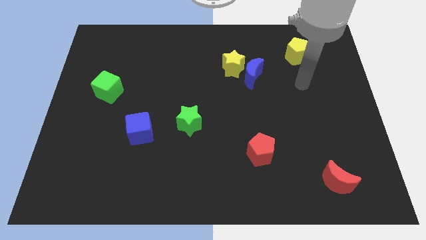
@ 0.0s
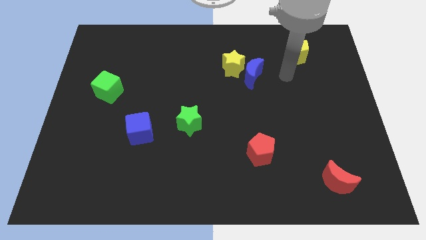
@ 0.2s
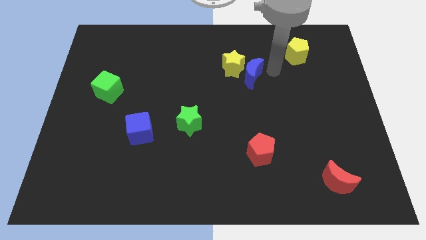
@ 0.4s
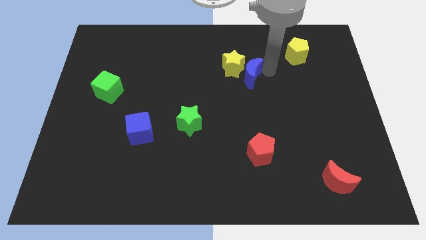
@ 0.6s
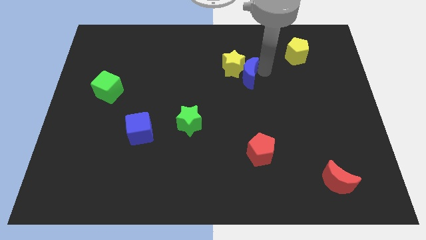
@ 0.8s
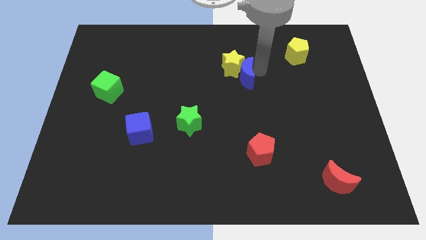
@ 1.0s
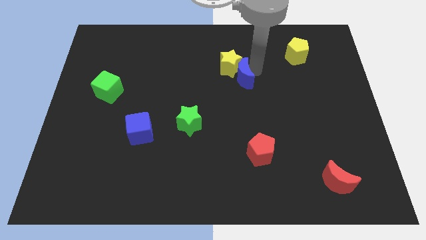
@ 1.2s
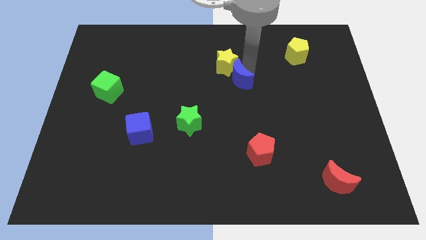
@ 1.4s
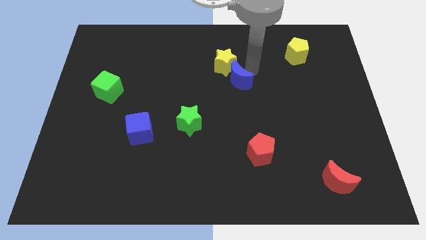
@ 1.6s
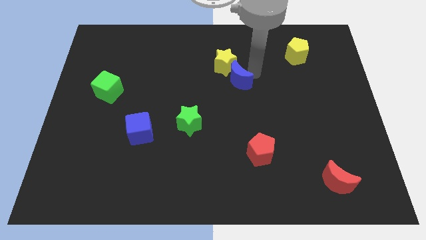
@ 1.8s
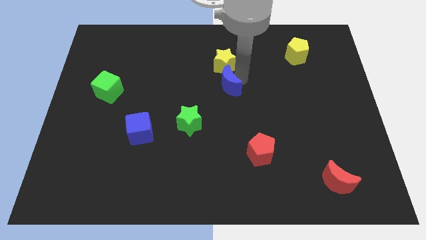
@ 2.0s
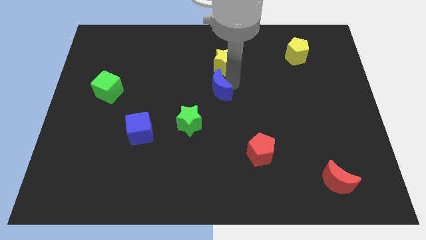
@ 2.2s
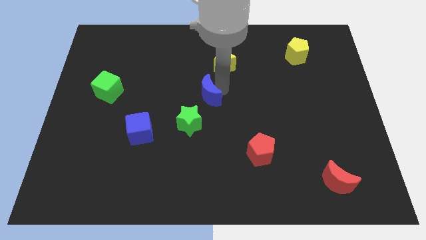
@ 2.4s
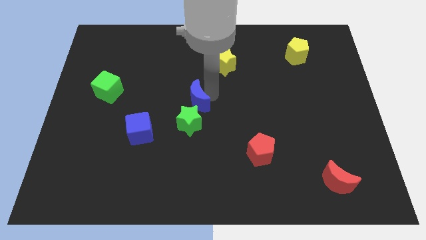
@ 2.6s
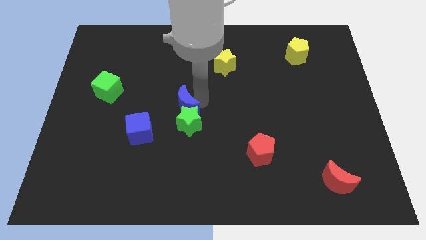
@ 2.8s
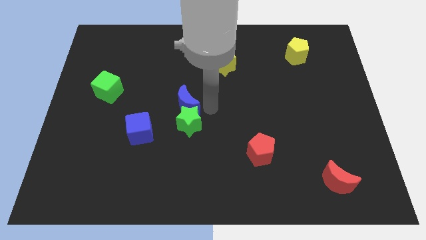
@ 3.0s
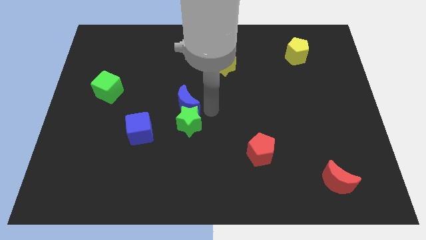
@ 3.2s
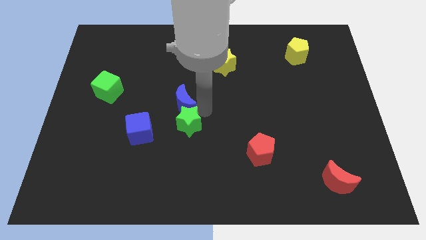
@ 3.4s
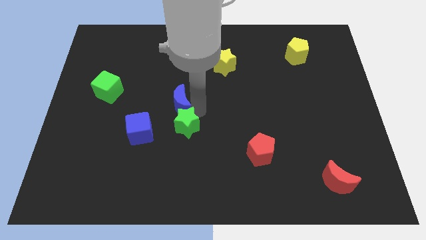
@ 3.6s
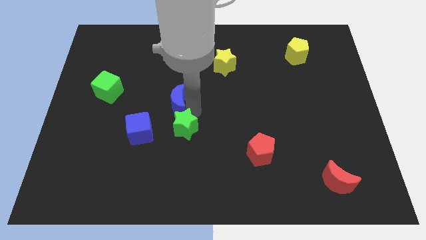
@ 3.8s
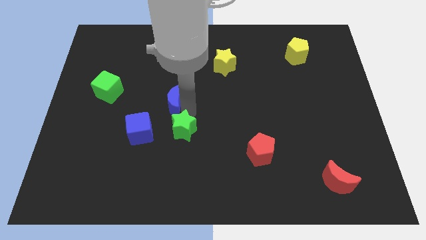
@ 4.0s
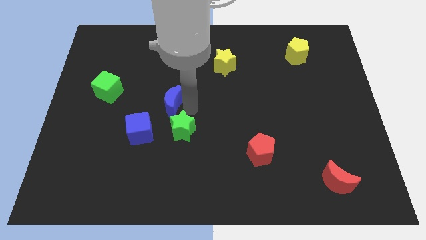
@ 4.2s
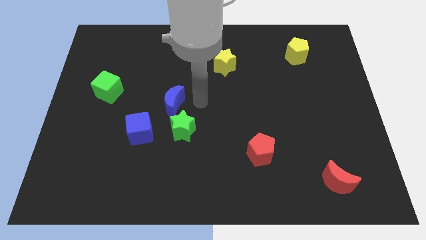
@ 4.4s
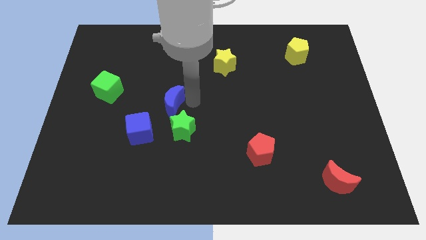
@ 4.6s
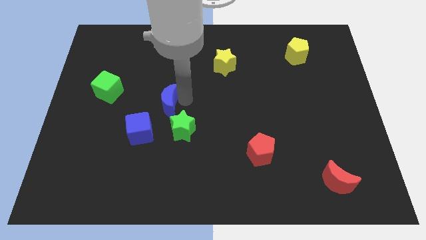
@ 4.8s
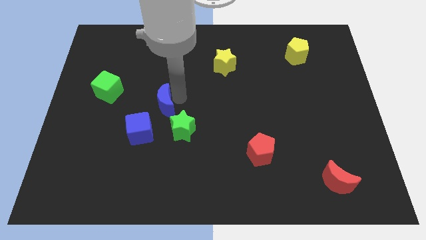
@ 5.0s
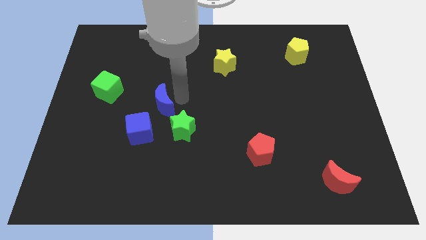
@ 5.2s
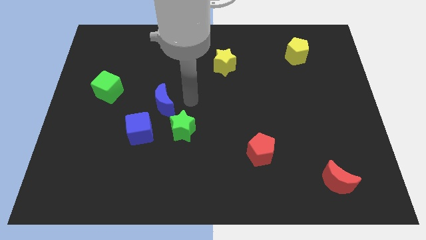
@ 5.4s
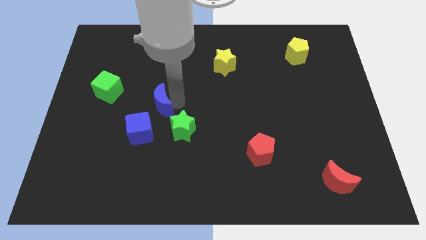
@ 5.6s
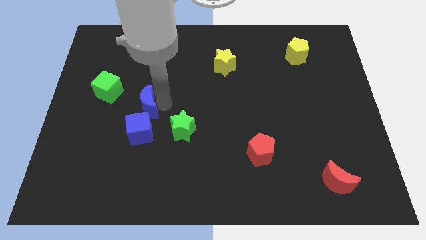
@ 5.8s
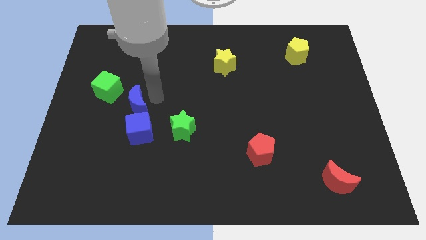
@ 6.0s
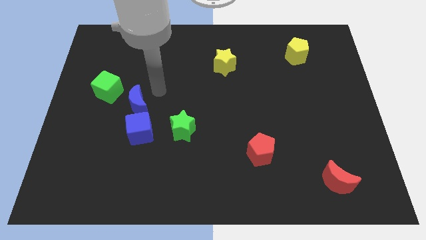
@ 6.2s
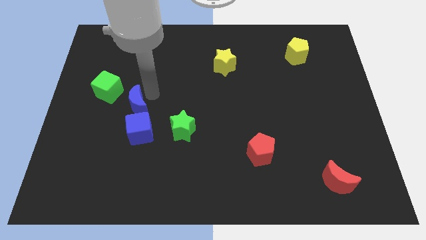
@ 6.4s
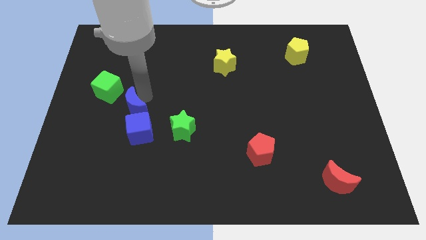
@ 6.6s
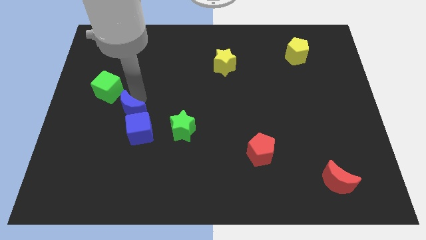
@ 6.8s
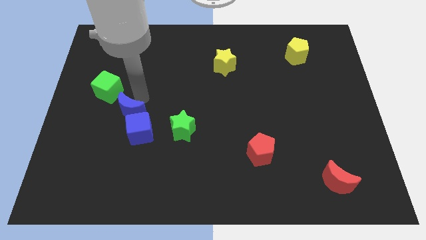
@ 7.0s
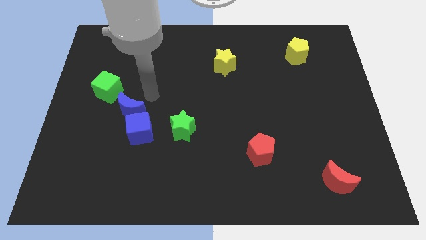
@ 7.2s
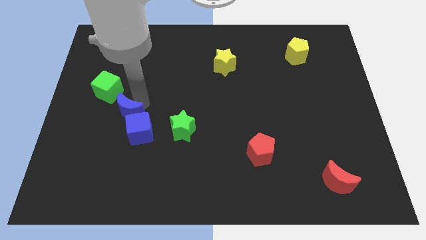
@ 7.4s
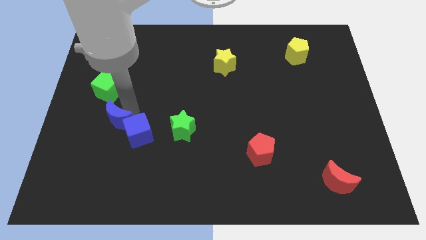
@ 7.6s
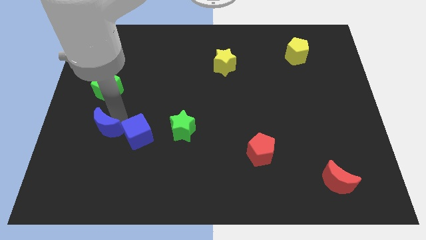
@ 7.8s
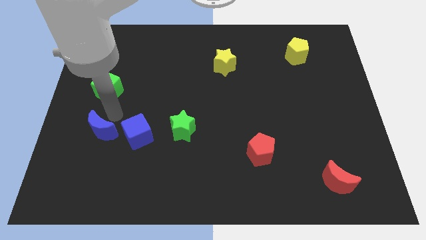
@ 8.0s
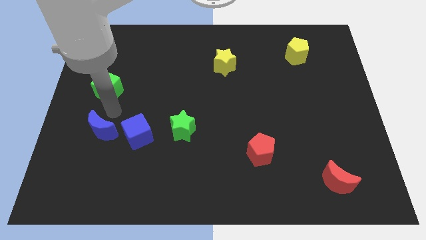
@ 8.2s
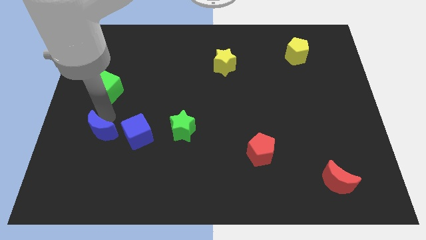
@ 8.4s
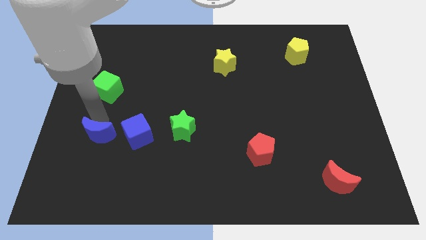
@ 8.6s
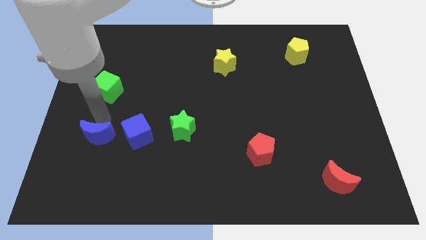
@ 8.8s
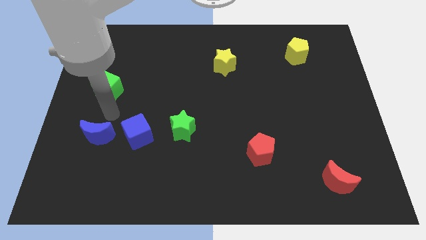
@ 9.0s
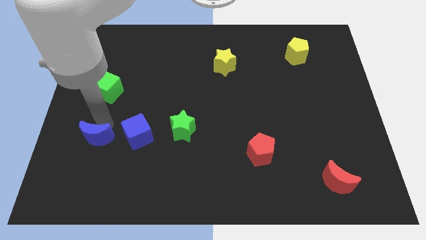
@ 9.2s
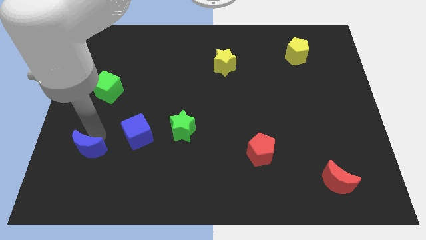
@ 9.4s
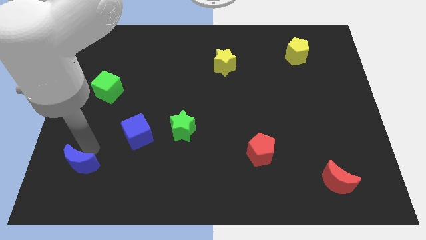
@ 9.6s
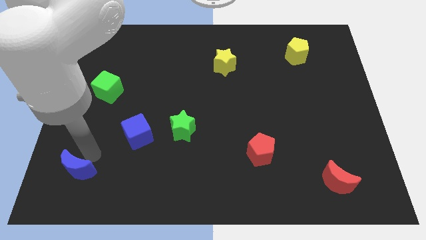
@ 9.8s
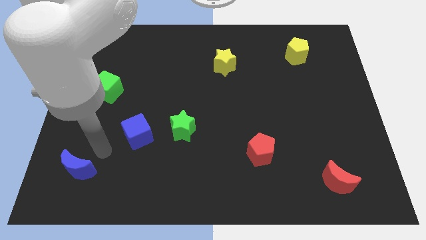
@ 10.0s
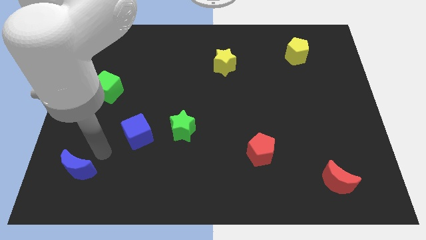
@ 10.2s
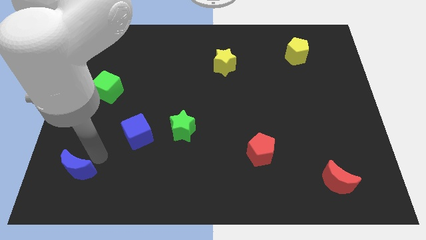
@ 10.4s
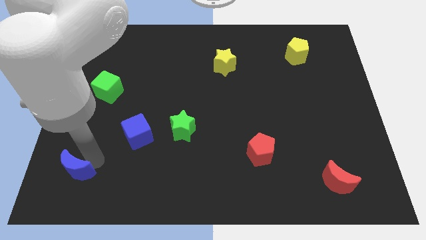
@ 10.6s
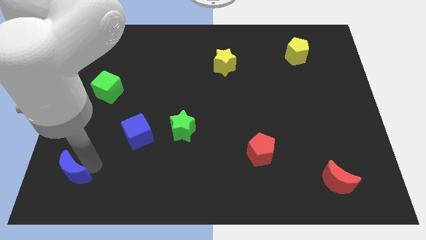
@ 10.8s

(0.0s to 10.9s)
push the blue moon to the bottom left of the board
